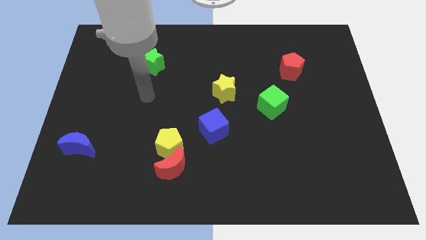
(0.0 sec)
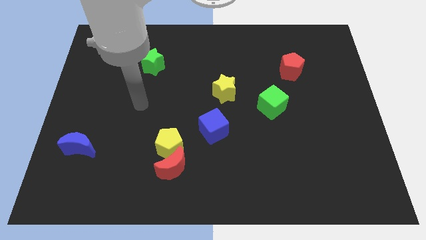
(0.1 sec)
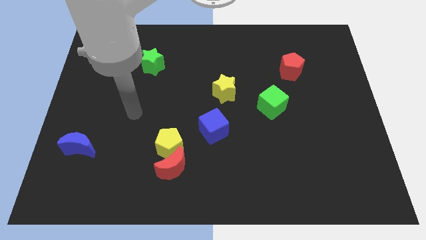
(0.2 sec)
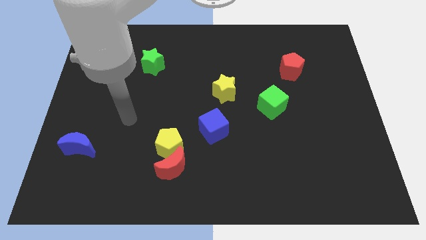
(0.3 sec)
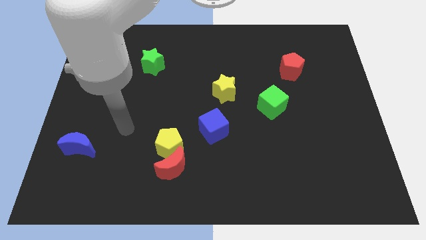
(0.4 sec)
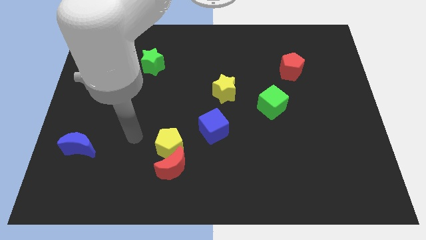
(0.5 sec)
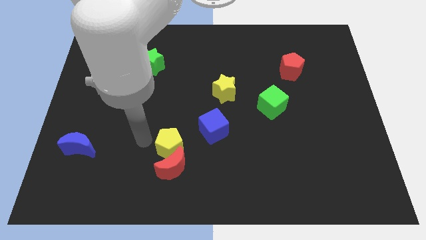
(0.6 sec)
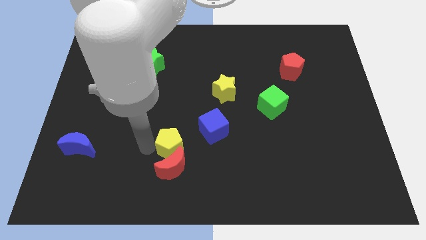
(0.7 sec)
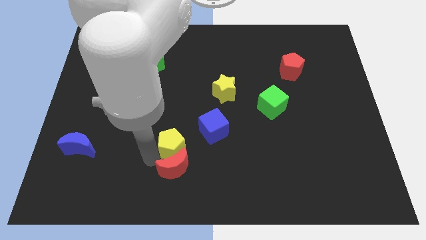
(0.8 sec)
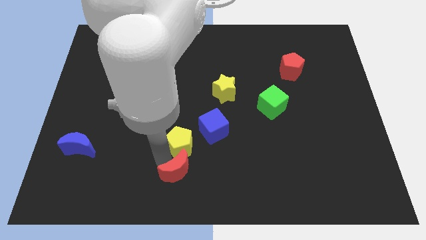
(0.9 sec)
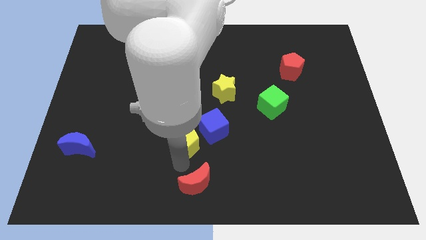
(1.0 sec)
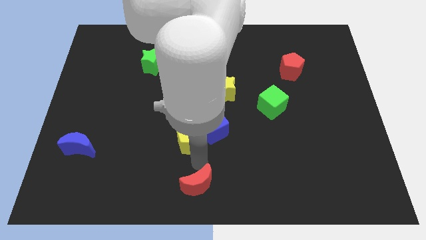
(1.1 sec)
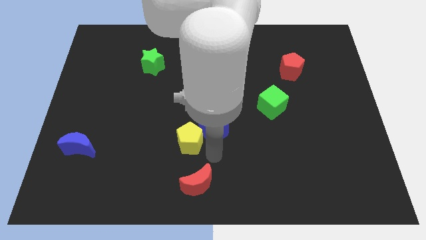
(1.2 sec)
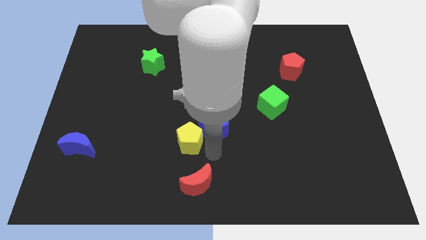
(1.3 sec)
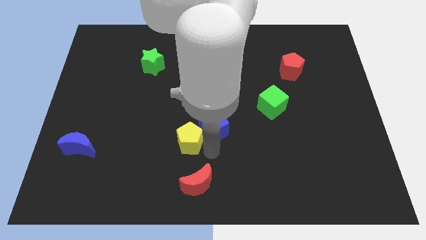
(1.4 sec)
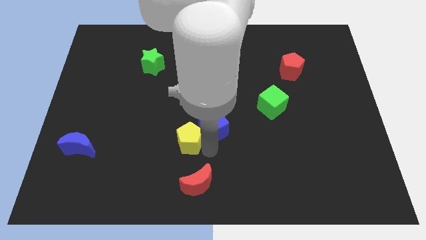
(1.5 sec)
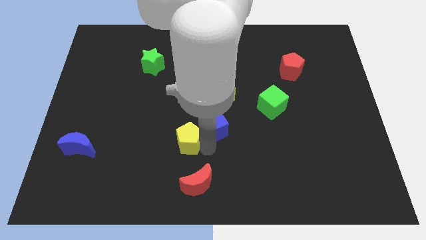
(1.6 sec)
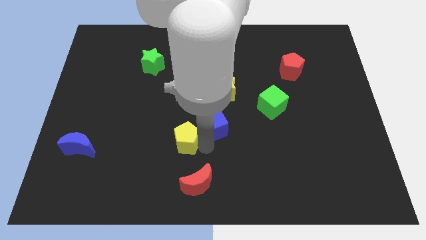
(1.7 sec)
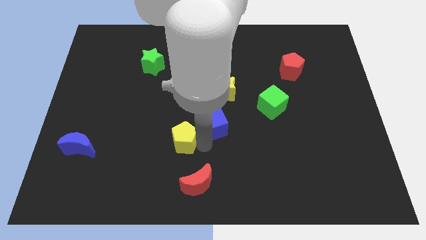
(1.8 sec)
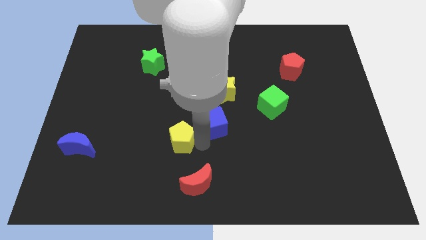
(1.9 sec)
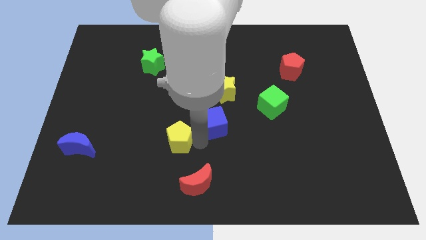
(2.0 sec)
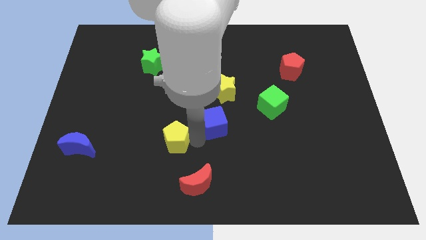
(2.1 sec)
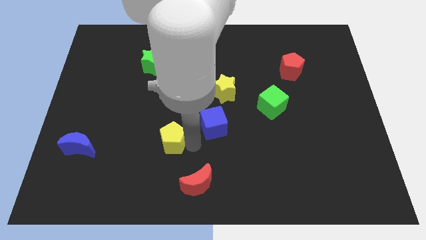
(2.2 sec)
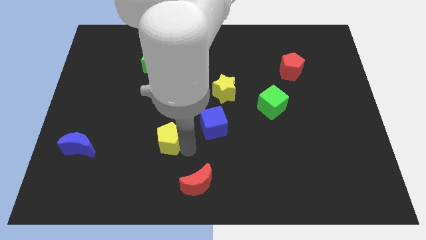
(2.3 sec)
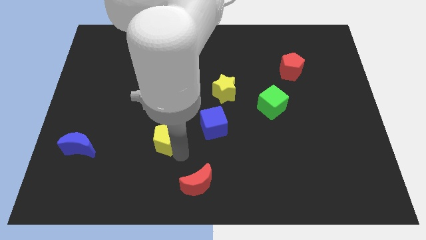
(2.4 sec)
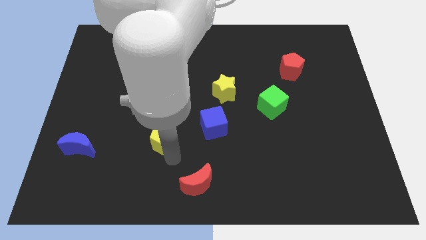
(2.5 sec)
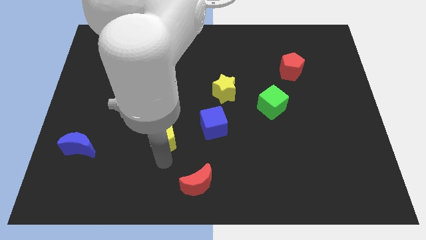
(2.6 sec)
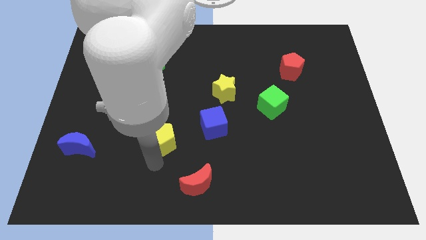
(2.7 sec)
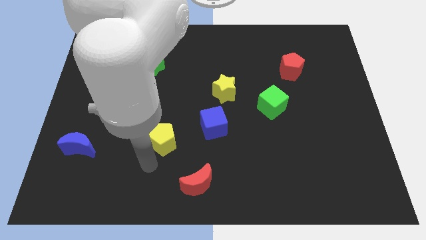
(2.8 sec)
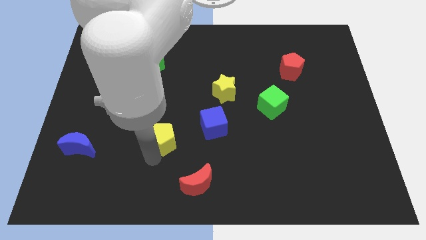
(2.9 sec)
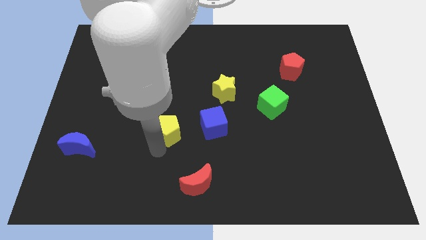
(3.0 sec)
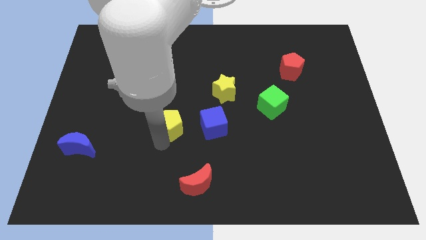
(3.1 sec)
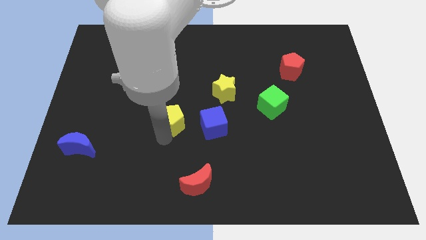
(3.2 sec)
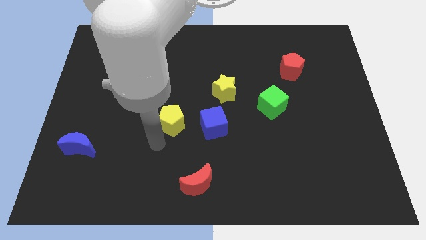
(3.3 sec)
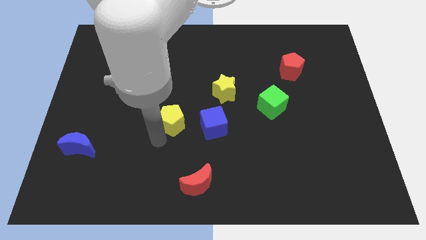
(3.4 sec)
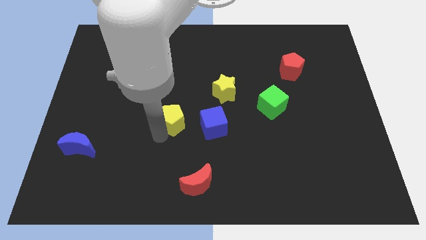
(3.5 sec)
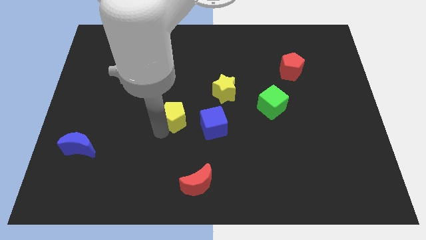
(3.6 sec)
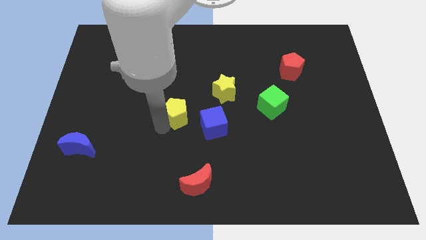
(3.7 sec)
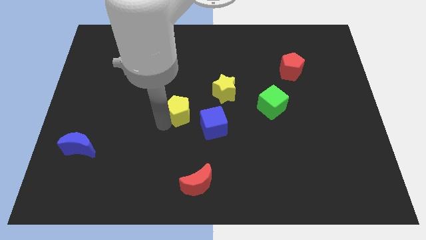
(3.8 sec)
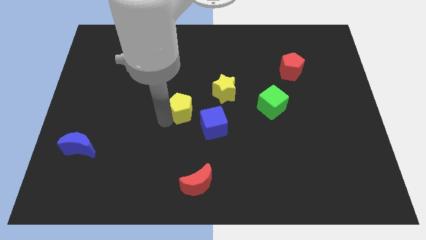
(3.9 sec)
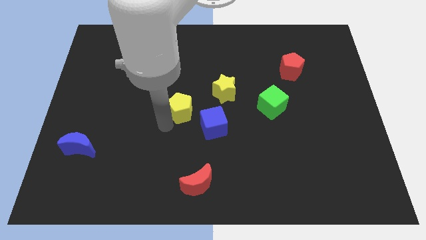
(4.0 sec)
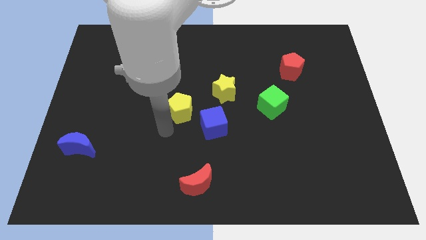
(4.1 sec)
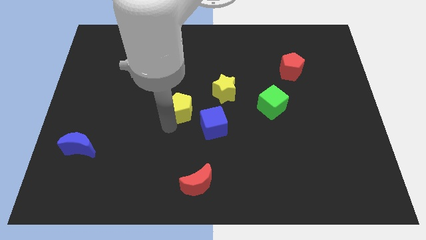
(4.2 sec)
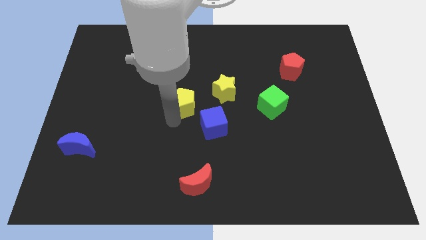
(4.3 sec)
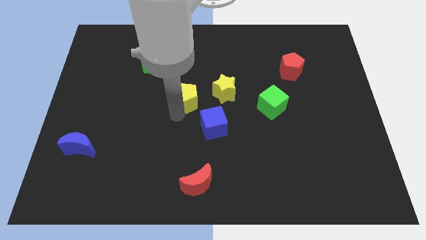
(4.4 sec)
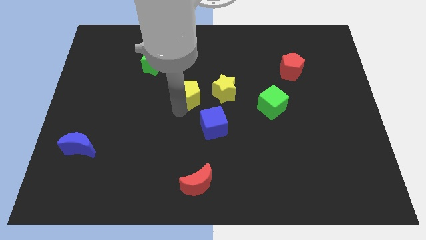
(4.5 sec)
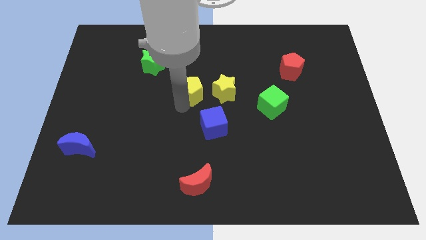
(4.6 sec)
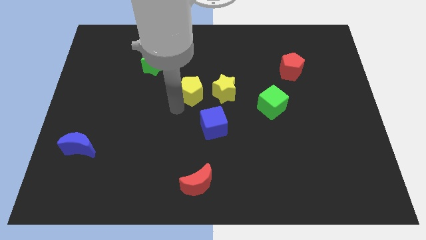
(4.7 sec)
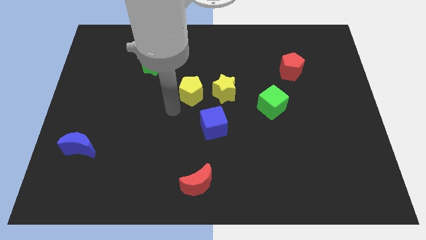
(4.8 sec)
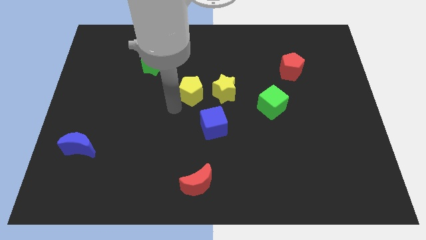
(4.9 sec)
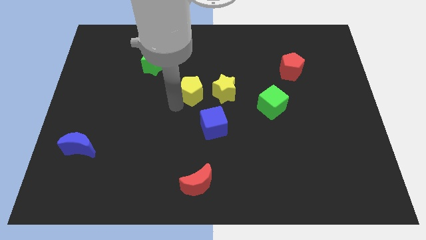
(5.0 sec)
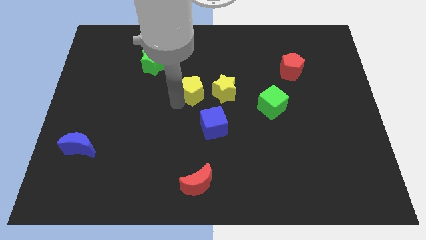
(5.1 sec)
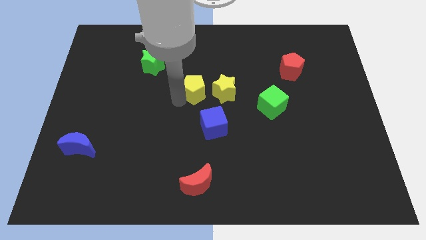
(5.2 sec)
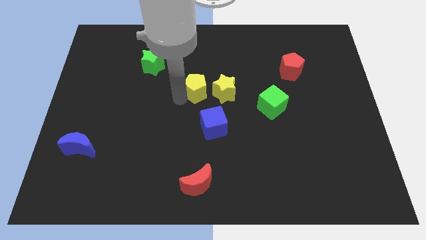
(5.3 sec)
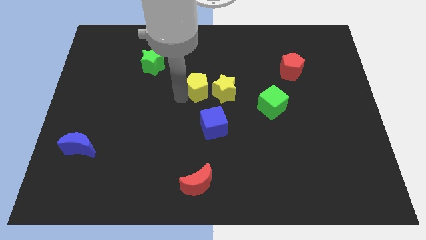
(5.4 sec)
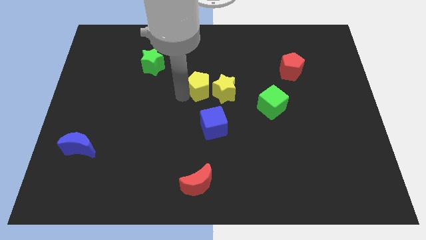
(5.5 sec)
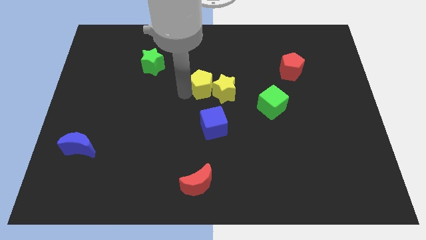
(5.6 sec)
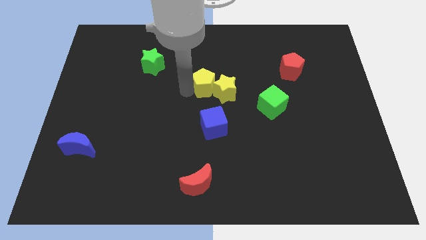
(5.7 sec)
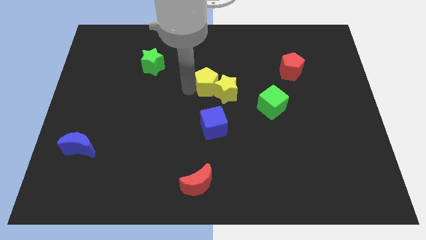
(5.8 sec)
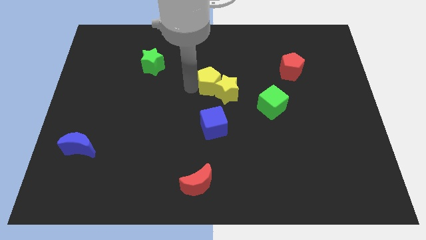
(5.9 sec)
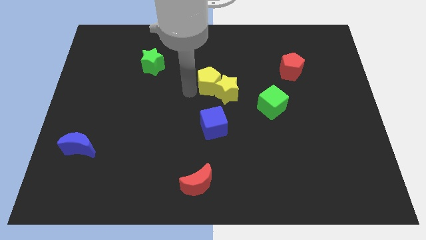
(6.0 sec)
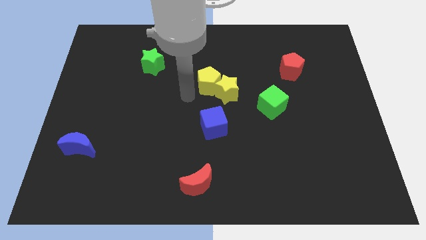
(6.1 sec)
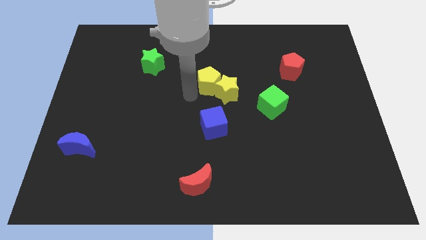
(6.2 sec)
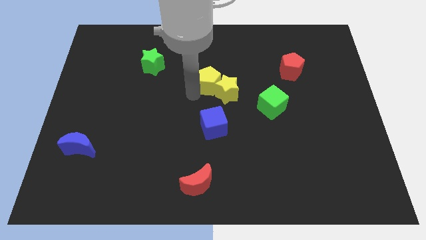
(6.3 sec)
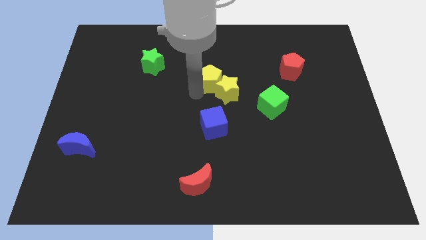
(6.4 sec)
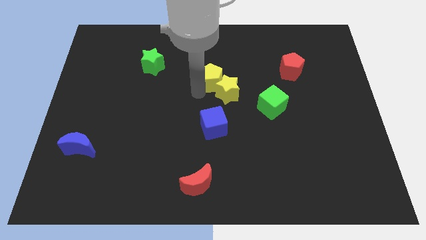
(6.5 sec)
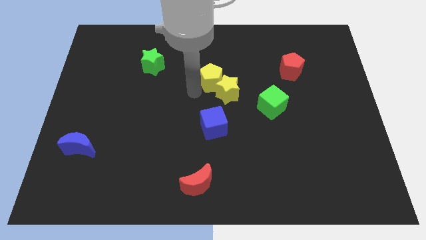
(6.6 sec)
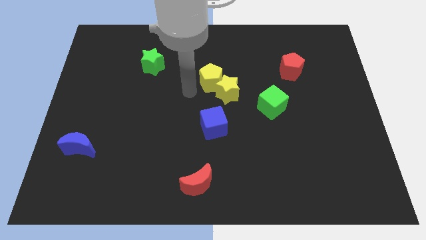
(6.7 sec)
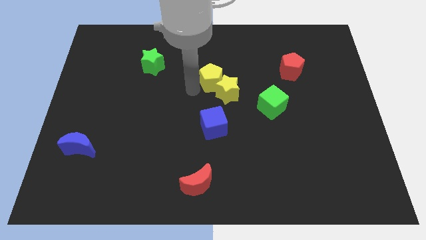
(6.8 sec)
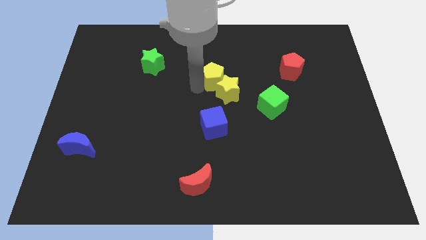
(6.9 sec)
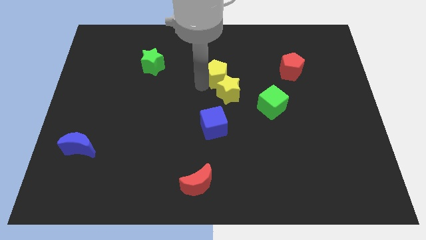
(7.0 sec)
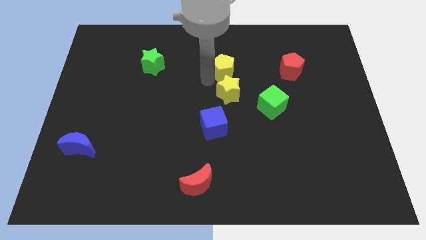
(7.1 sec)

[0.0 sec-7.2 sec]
move the yellow pentagon upwards and right diagonally

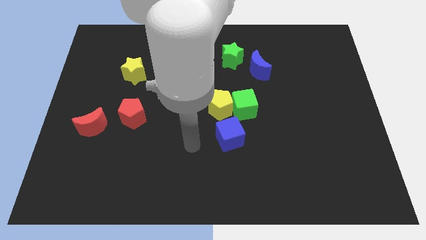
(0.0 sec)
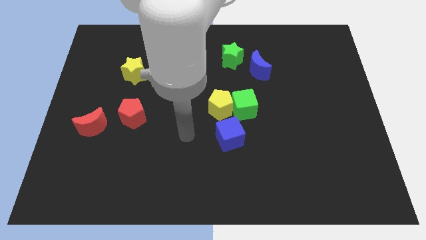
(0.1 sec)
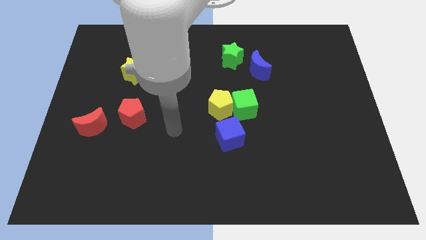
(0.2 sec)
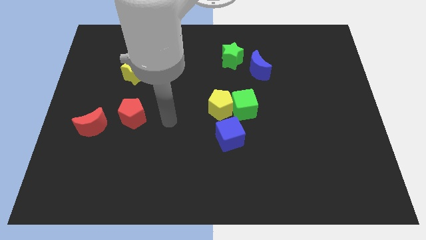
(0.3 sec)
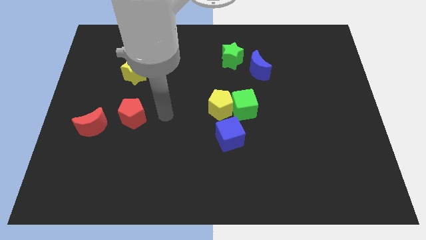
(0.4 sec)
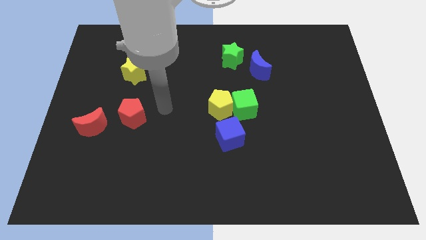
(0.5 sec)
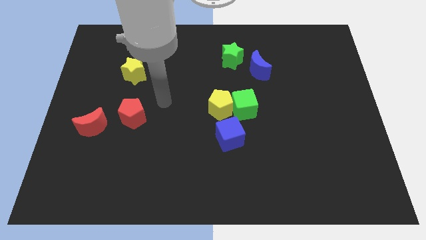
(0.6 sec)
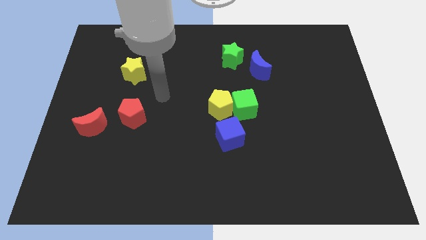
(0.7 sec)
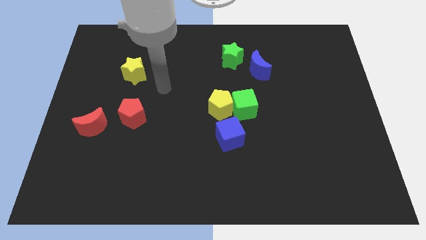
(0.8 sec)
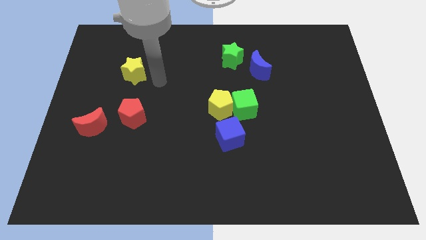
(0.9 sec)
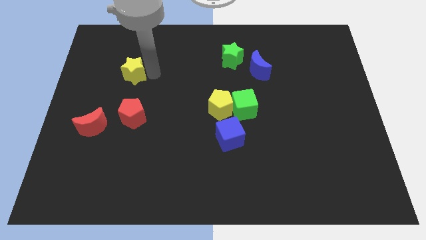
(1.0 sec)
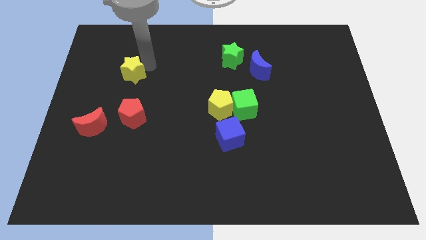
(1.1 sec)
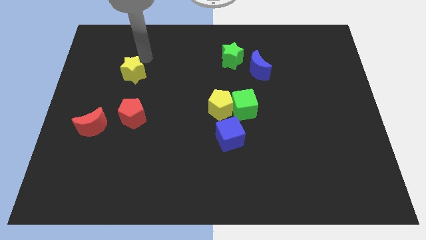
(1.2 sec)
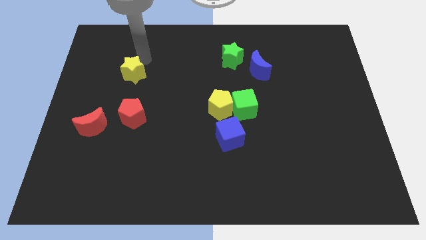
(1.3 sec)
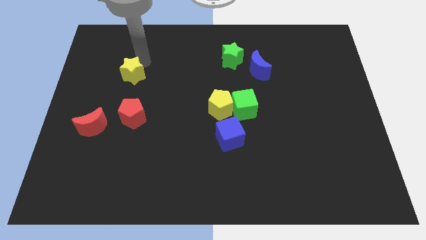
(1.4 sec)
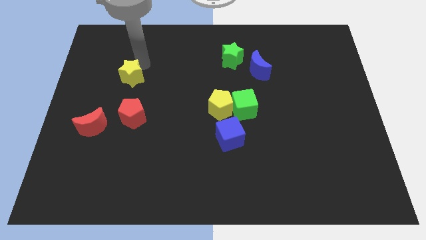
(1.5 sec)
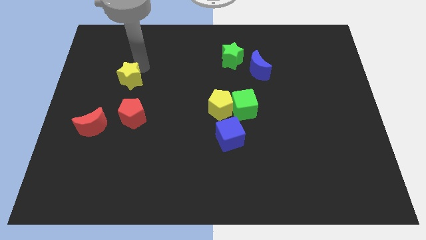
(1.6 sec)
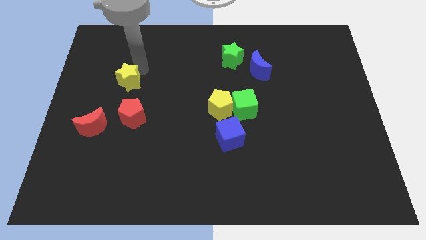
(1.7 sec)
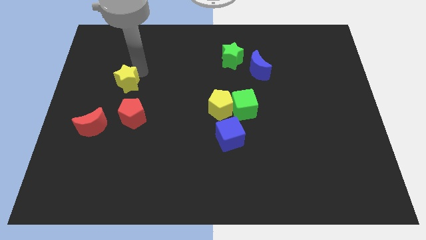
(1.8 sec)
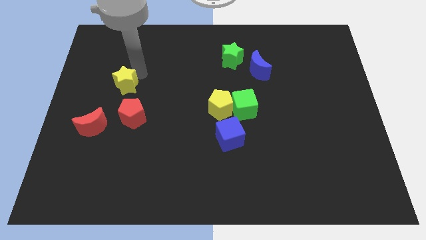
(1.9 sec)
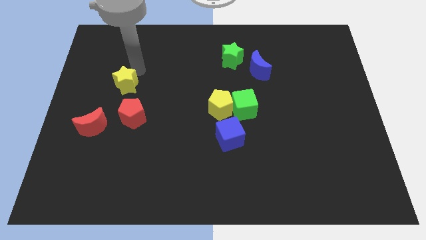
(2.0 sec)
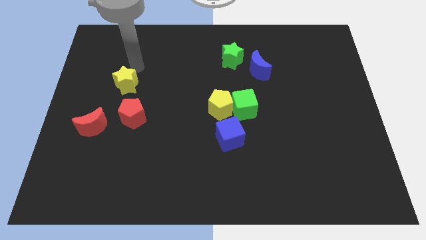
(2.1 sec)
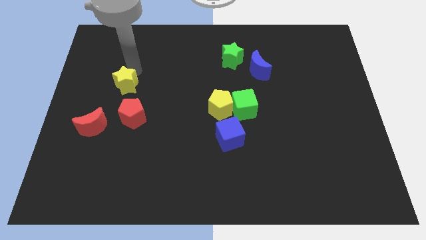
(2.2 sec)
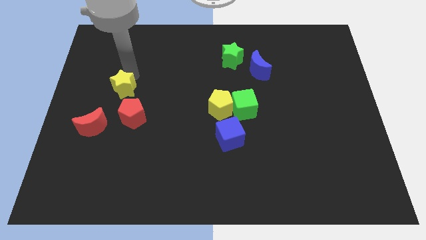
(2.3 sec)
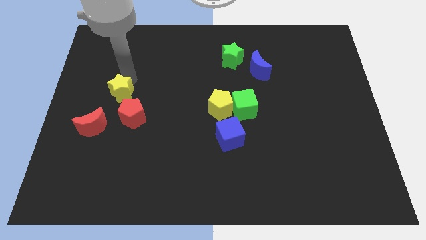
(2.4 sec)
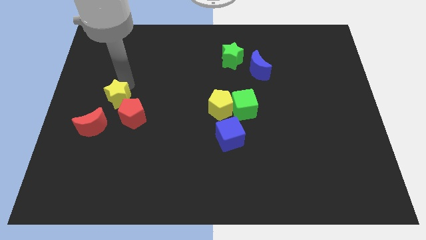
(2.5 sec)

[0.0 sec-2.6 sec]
move the yellow star somewhat down
